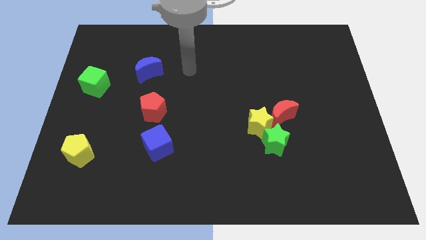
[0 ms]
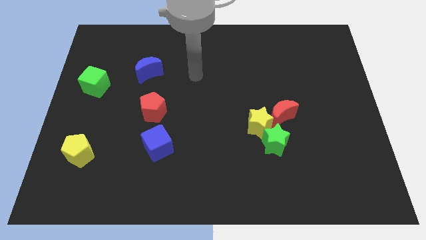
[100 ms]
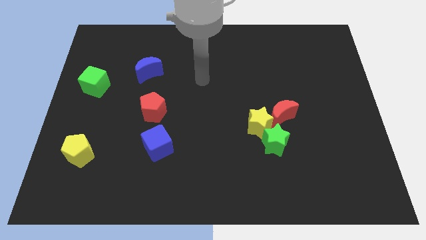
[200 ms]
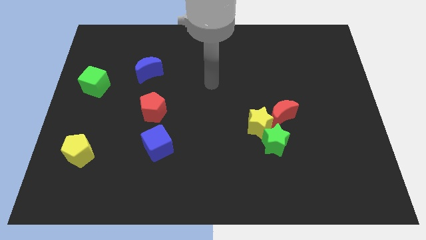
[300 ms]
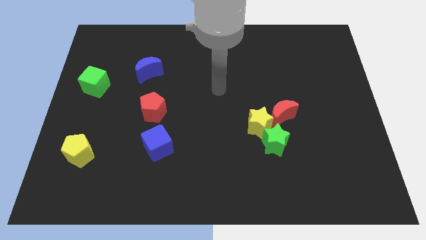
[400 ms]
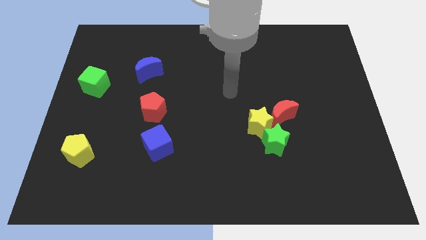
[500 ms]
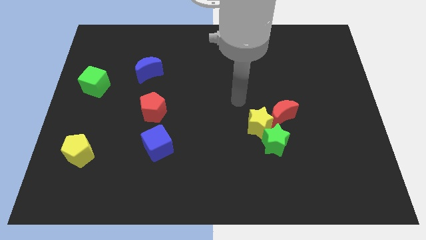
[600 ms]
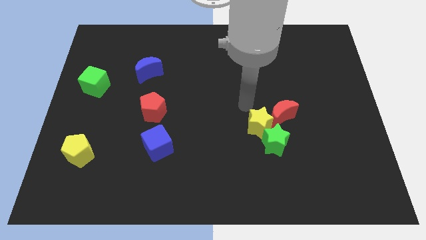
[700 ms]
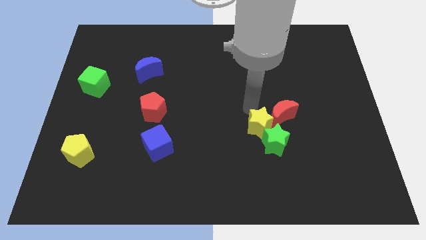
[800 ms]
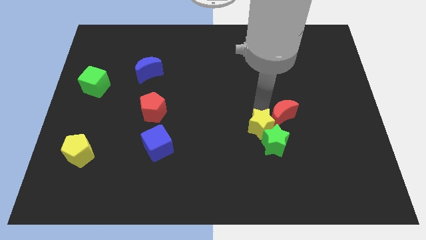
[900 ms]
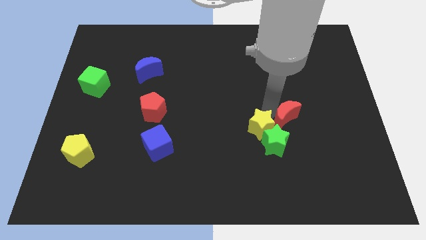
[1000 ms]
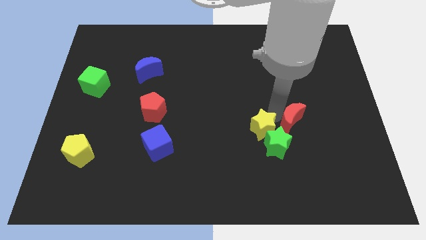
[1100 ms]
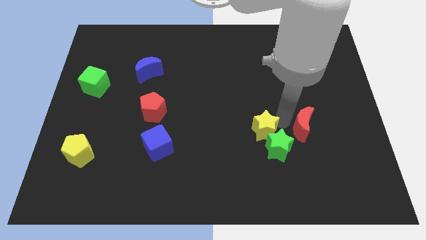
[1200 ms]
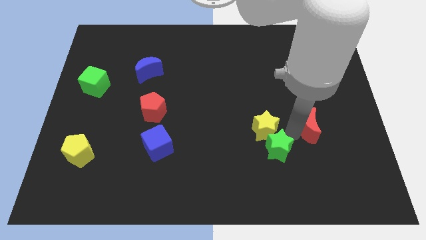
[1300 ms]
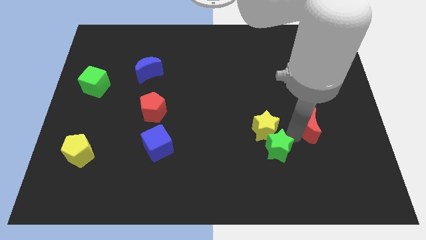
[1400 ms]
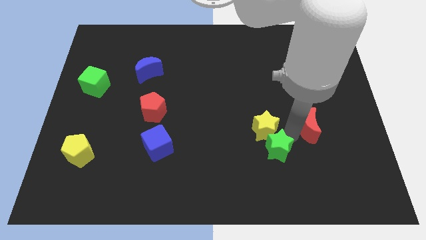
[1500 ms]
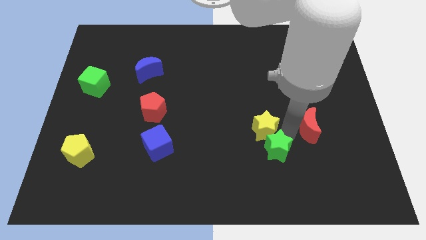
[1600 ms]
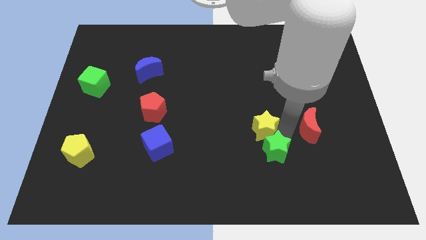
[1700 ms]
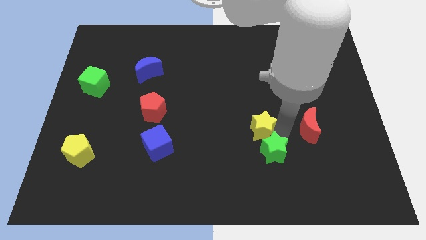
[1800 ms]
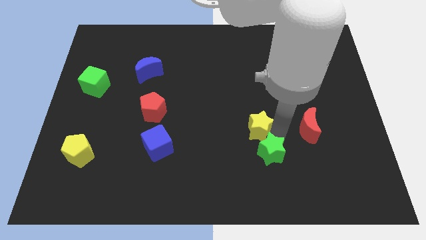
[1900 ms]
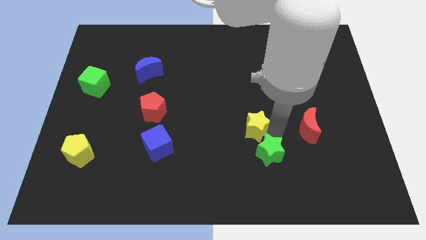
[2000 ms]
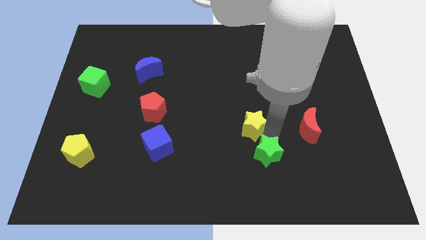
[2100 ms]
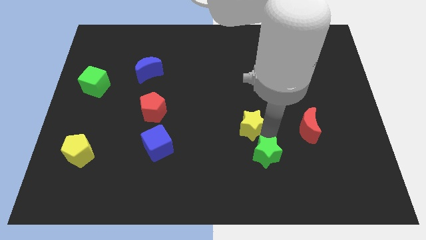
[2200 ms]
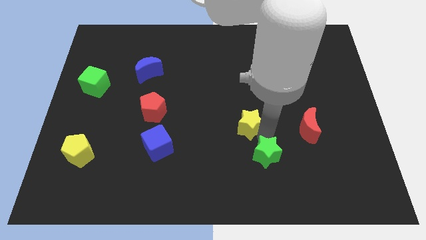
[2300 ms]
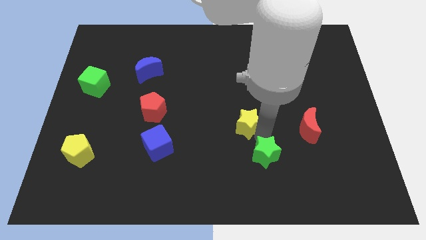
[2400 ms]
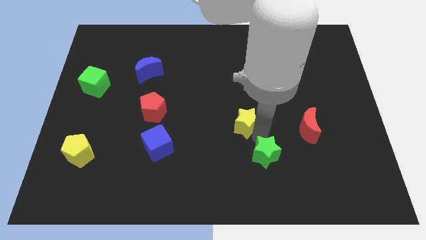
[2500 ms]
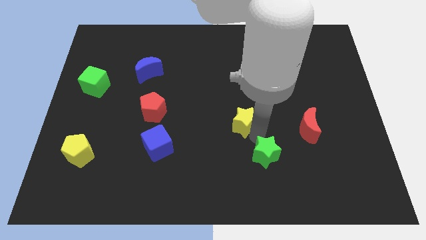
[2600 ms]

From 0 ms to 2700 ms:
pull the yellow star apart from the green star and red moon

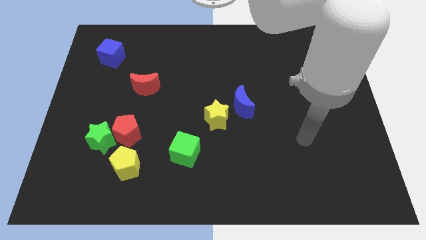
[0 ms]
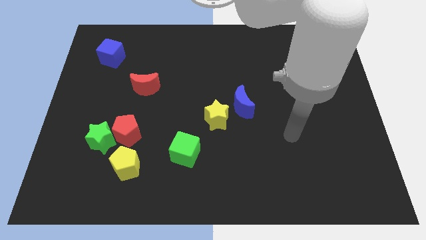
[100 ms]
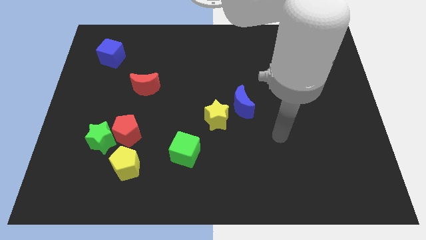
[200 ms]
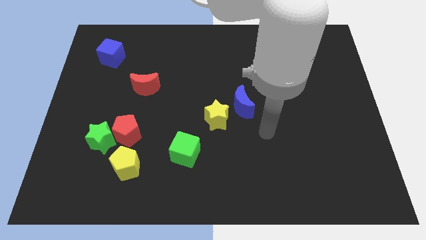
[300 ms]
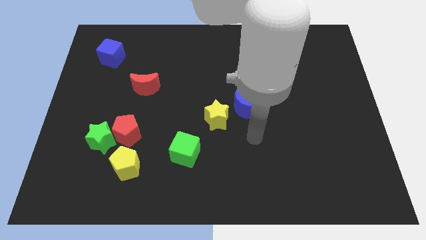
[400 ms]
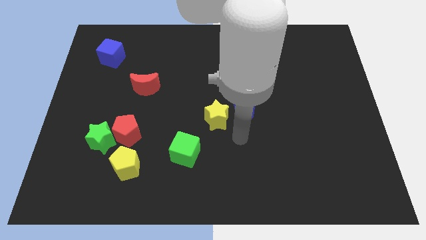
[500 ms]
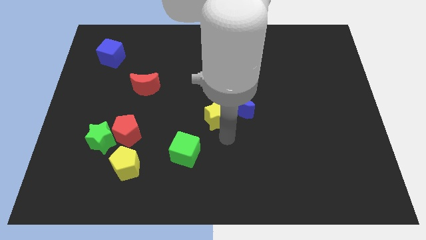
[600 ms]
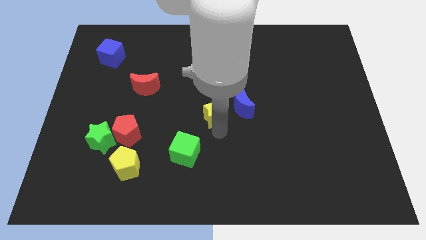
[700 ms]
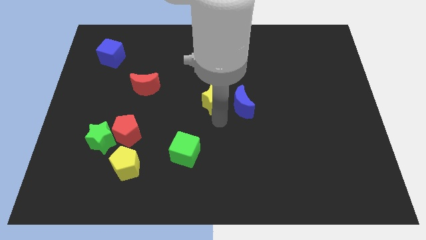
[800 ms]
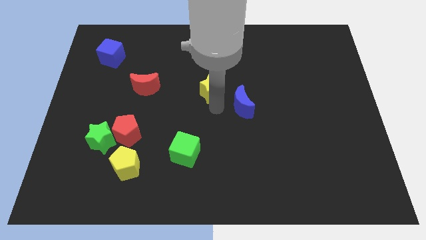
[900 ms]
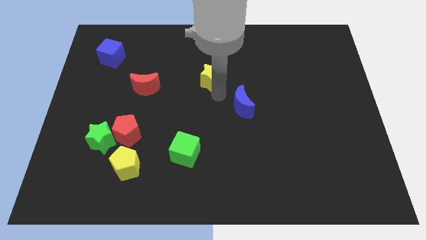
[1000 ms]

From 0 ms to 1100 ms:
pull the blue moon apart from the yellow star

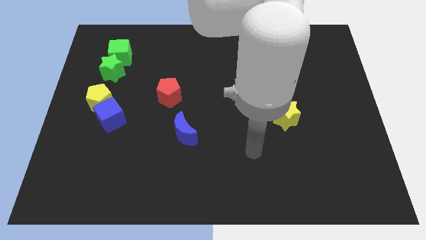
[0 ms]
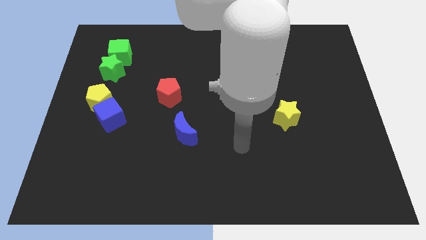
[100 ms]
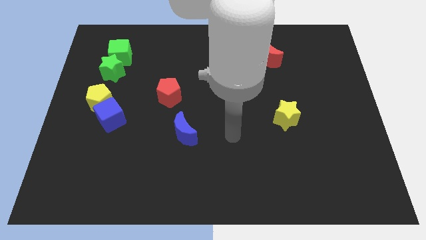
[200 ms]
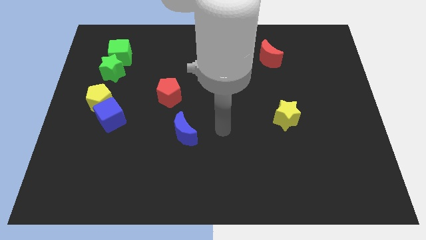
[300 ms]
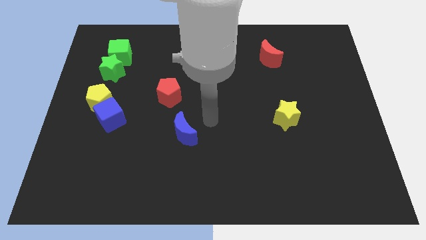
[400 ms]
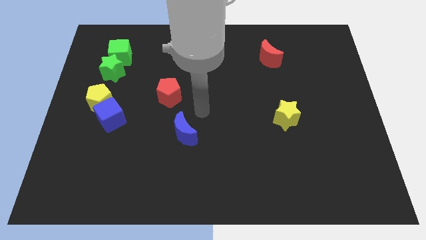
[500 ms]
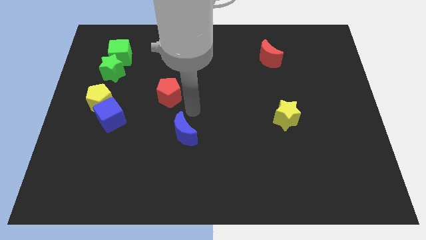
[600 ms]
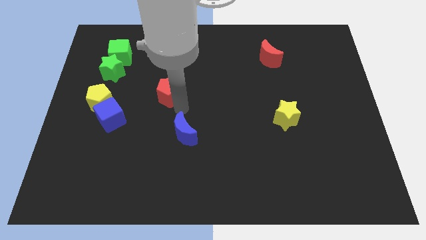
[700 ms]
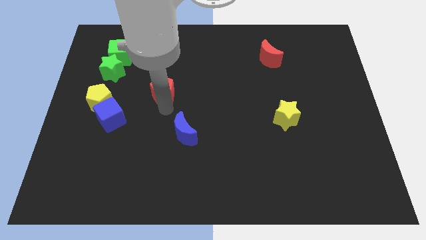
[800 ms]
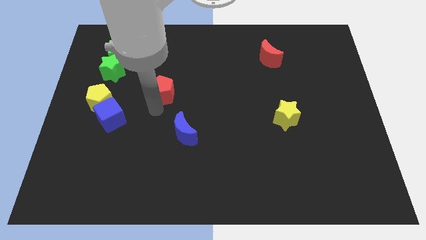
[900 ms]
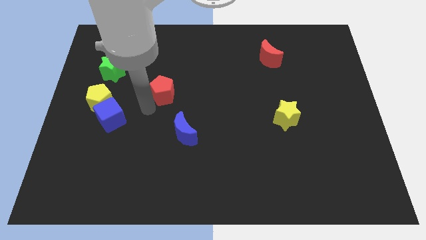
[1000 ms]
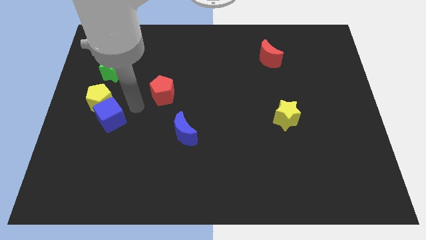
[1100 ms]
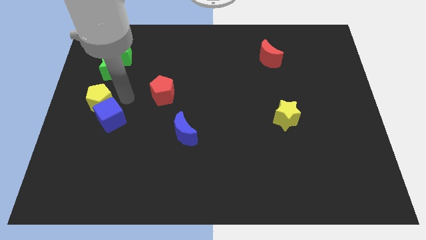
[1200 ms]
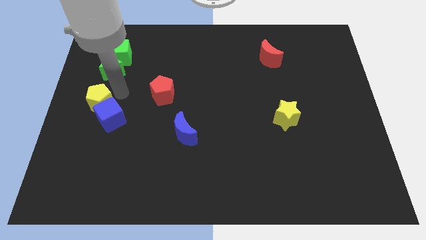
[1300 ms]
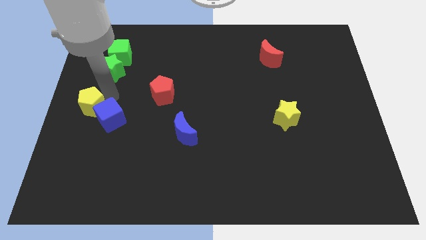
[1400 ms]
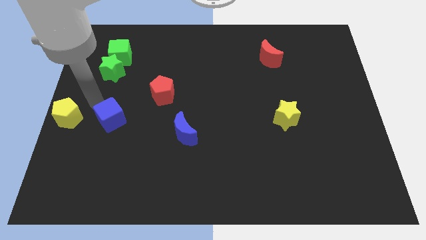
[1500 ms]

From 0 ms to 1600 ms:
move the blue cube away from the yellow pentagon

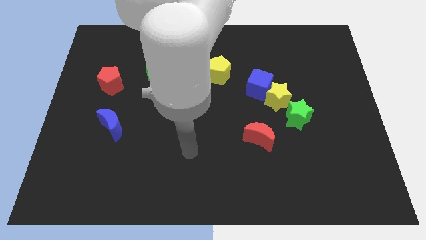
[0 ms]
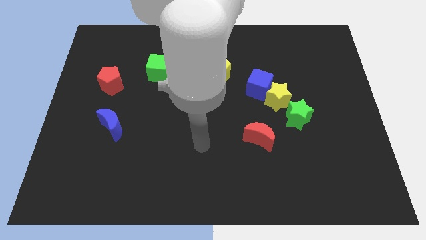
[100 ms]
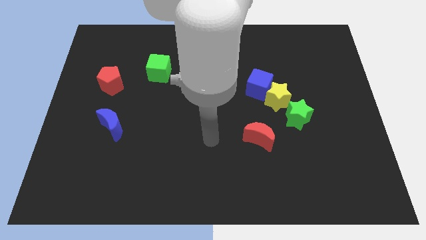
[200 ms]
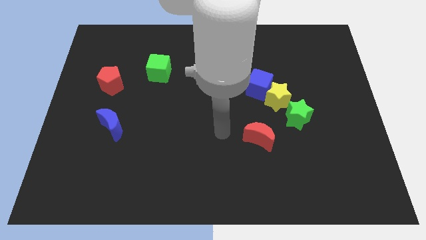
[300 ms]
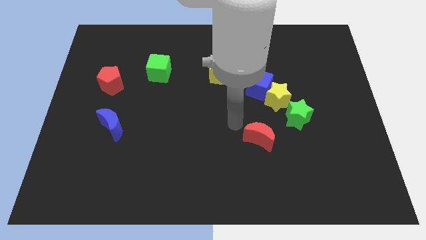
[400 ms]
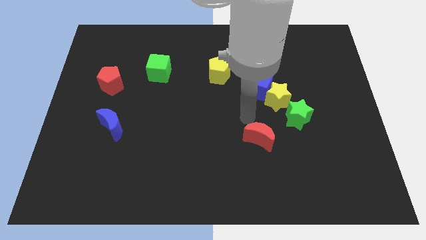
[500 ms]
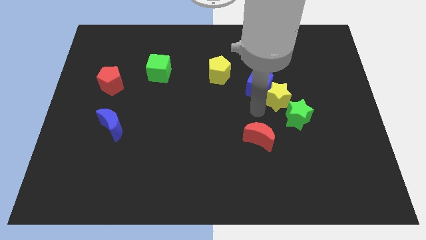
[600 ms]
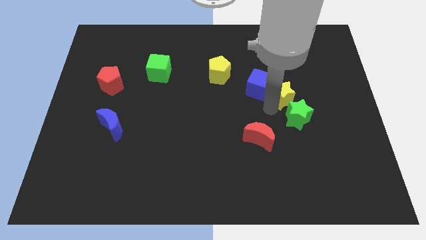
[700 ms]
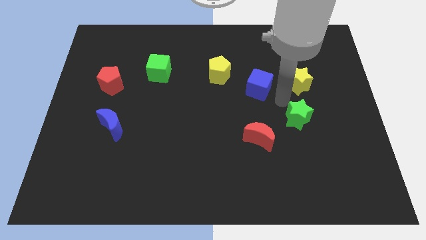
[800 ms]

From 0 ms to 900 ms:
separate the blue cube from the yellow star

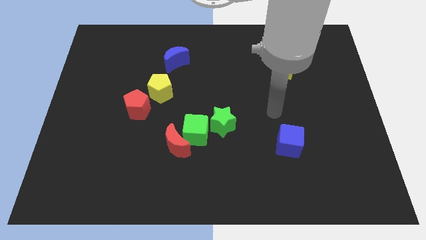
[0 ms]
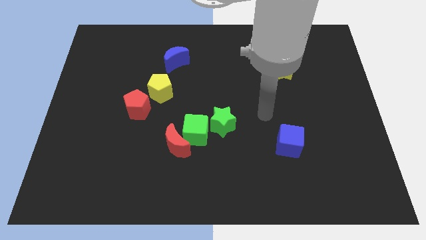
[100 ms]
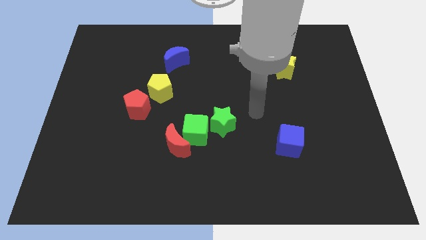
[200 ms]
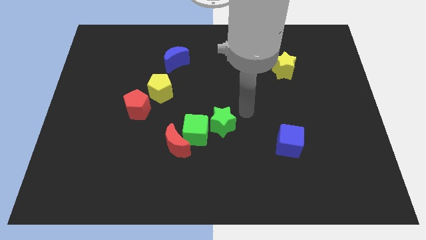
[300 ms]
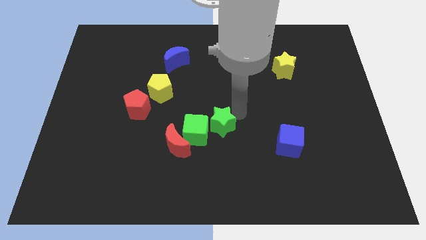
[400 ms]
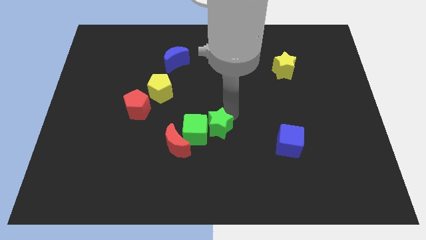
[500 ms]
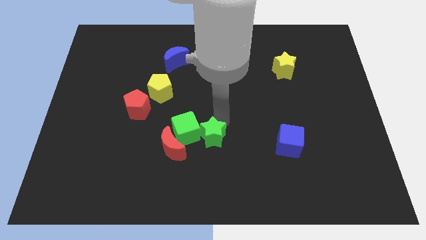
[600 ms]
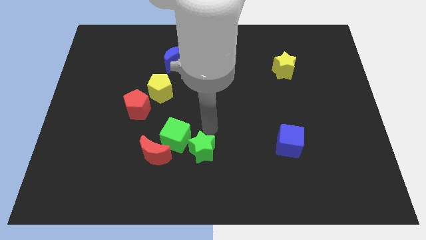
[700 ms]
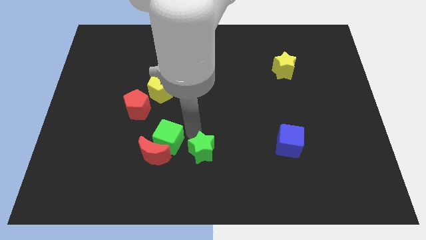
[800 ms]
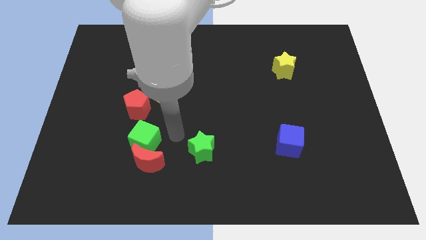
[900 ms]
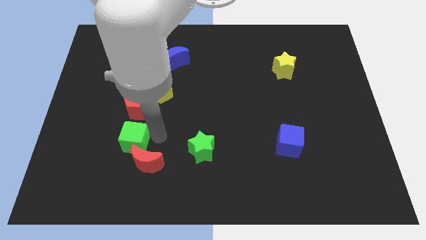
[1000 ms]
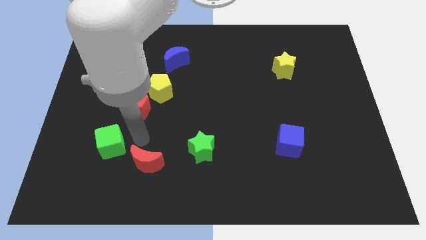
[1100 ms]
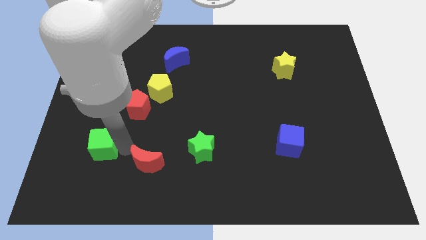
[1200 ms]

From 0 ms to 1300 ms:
pull the red moon apart from the green cube

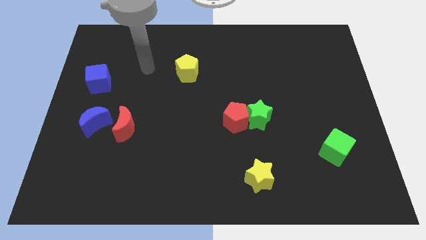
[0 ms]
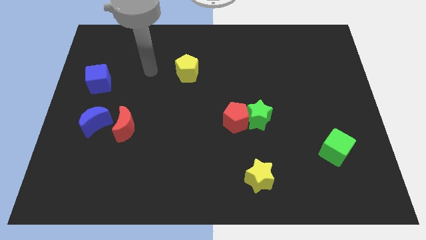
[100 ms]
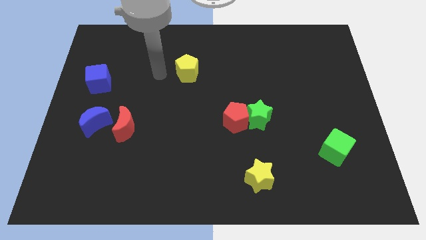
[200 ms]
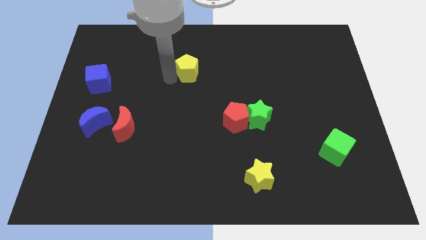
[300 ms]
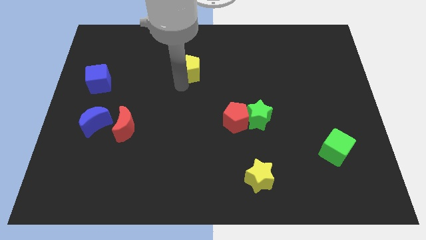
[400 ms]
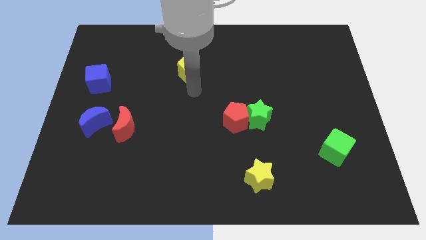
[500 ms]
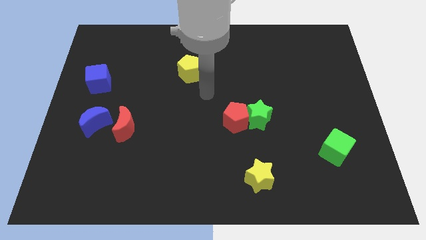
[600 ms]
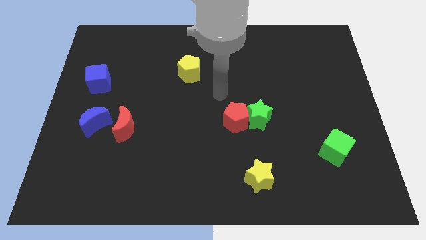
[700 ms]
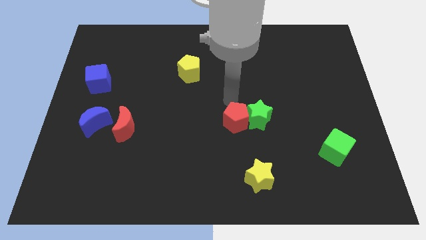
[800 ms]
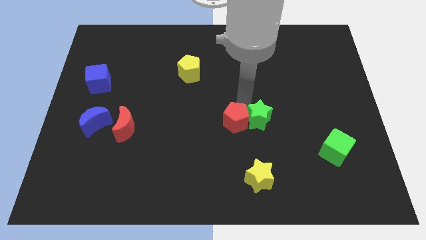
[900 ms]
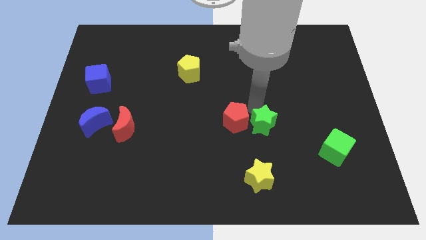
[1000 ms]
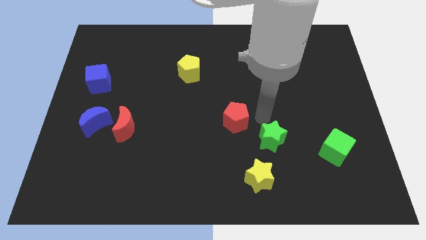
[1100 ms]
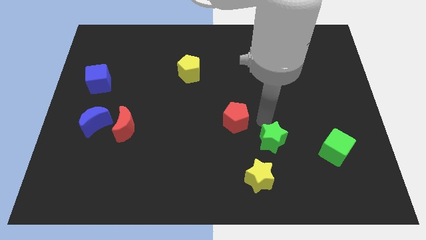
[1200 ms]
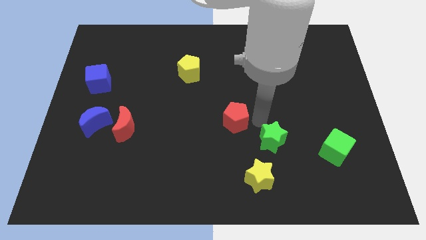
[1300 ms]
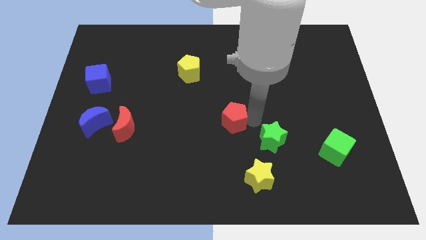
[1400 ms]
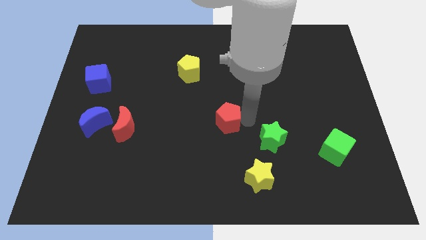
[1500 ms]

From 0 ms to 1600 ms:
separate the red pentagon from the green star
